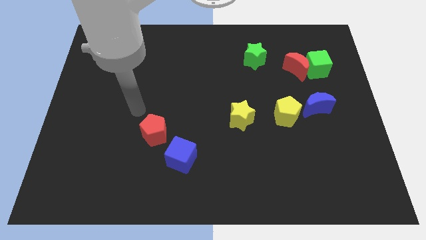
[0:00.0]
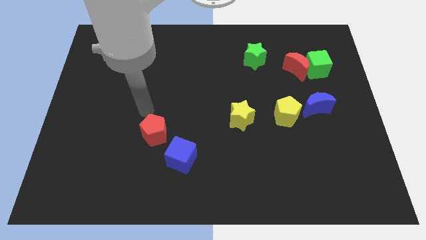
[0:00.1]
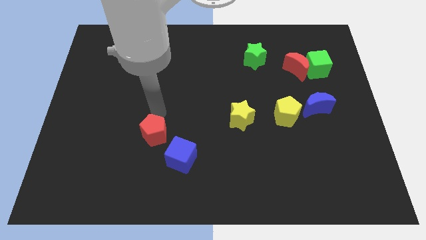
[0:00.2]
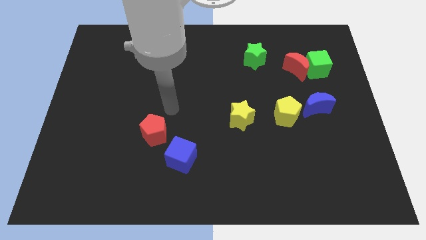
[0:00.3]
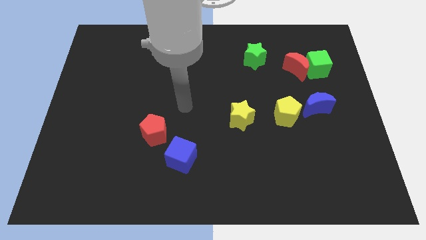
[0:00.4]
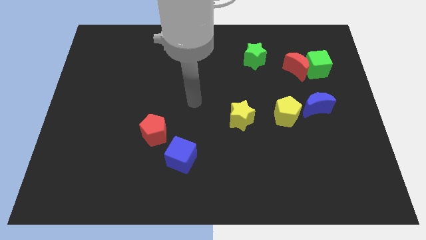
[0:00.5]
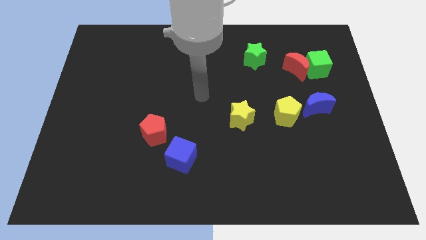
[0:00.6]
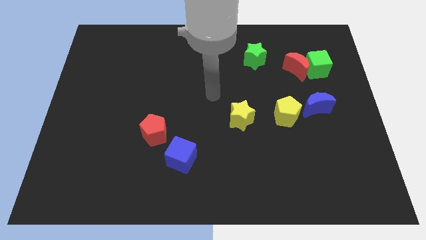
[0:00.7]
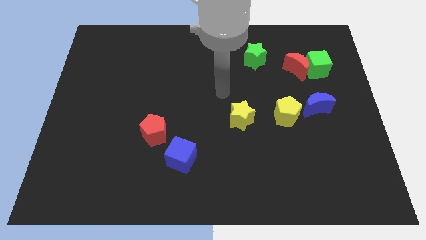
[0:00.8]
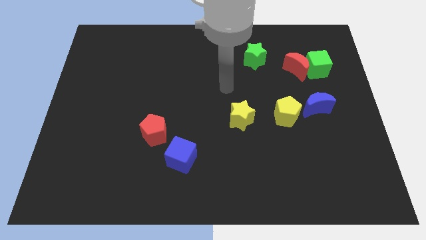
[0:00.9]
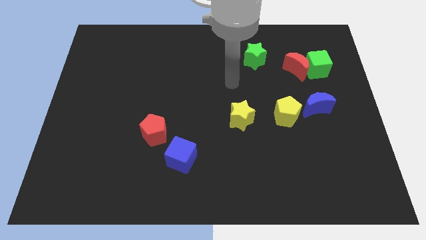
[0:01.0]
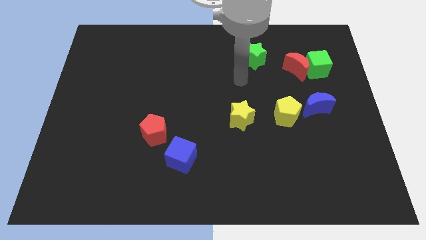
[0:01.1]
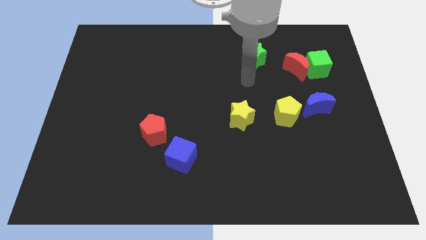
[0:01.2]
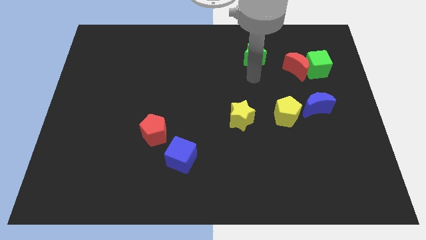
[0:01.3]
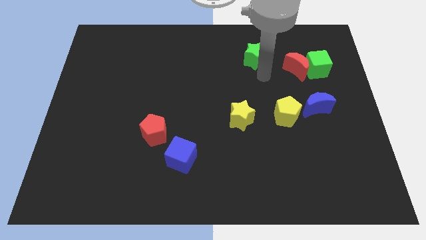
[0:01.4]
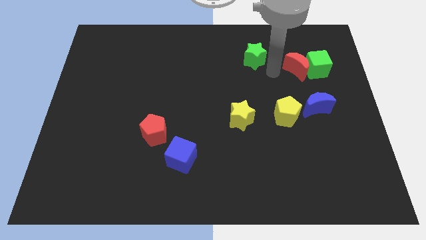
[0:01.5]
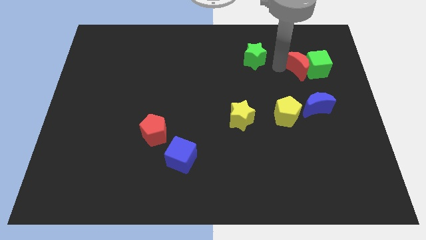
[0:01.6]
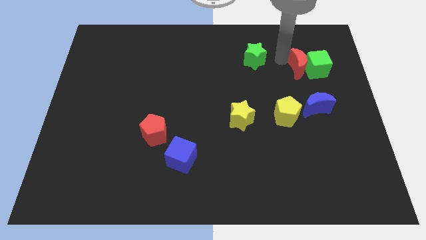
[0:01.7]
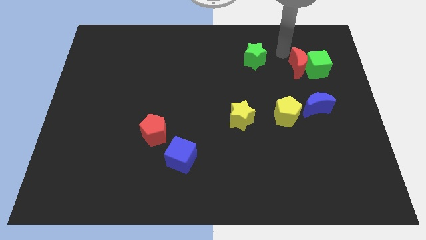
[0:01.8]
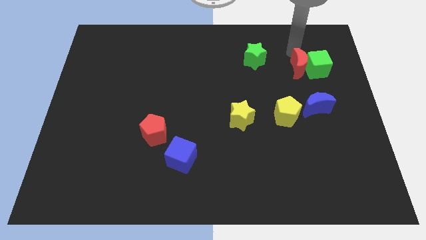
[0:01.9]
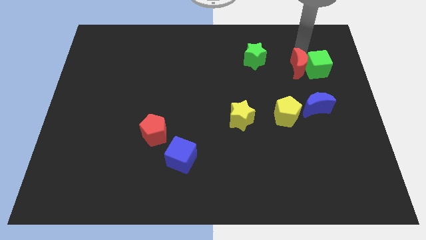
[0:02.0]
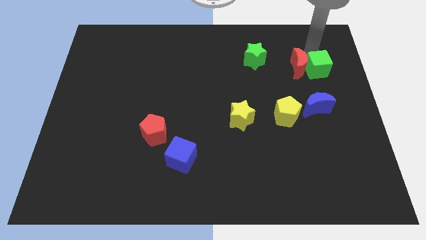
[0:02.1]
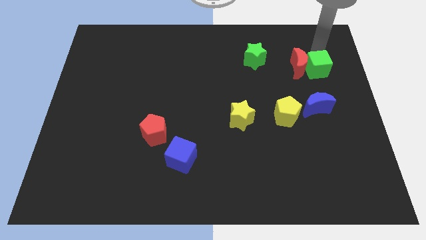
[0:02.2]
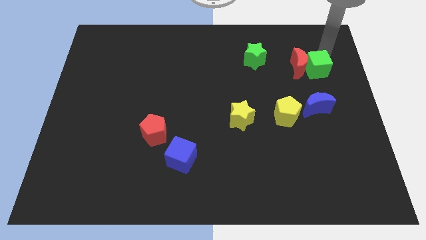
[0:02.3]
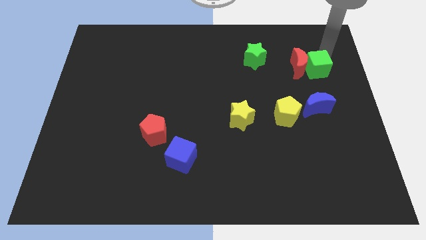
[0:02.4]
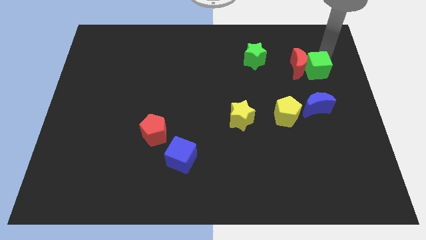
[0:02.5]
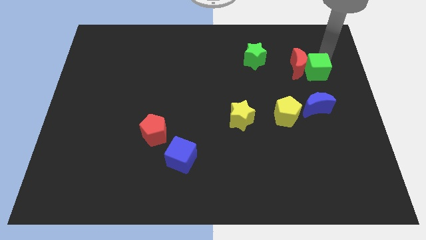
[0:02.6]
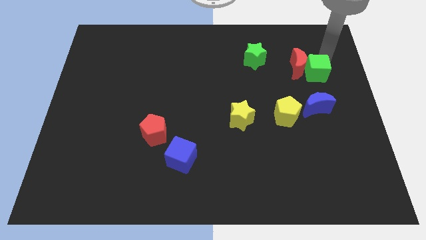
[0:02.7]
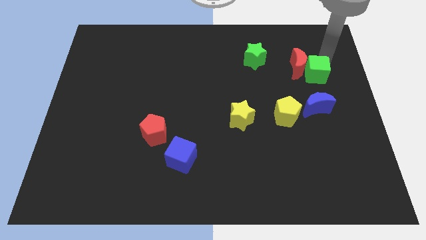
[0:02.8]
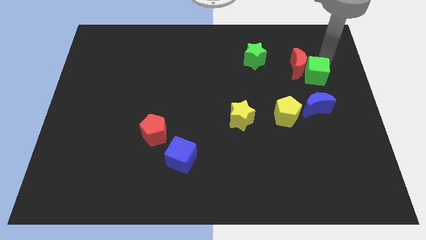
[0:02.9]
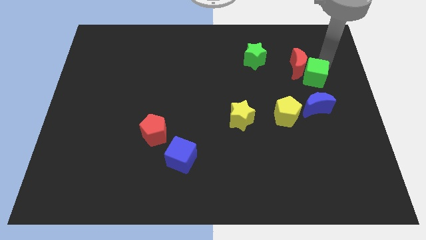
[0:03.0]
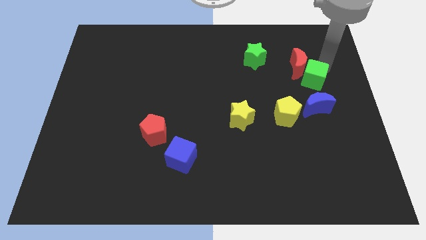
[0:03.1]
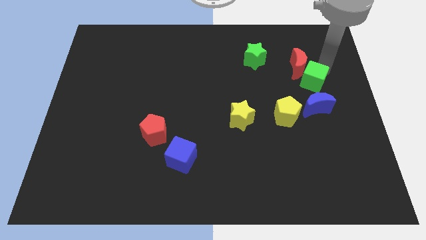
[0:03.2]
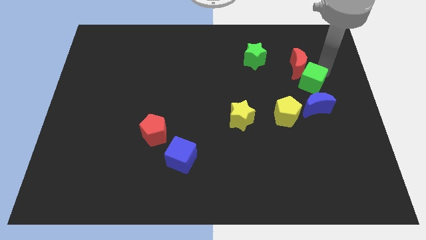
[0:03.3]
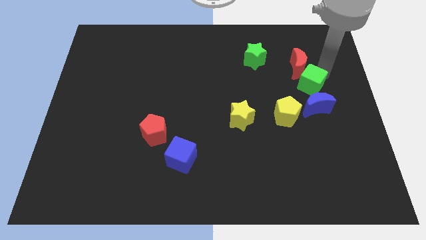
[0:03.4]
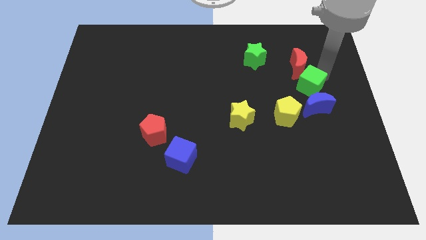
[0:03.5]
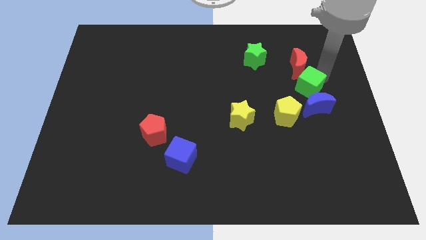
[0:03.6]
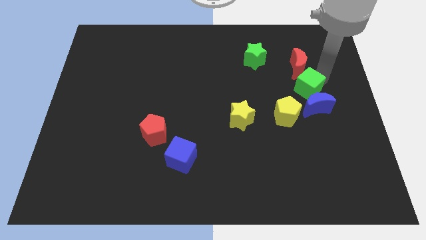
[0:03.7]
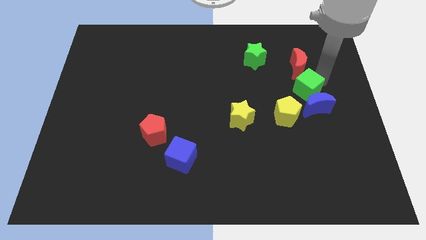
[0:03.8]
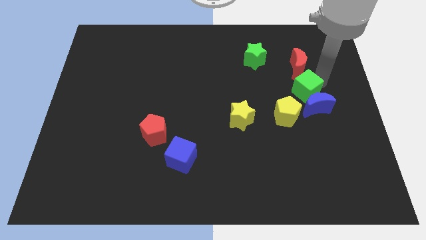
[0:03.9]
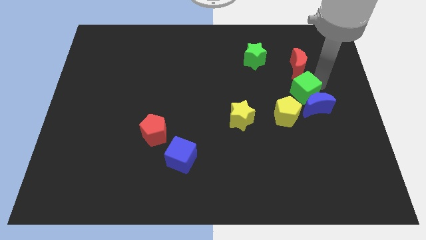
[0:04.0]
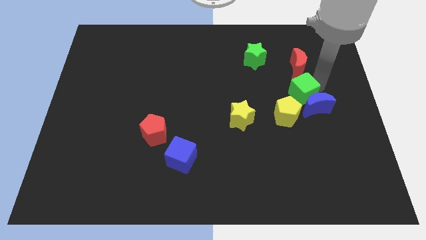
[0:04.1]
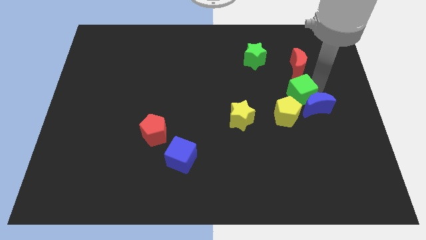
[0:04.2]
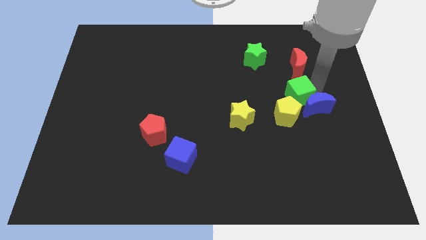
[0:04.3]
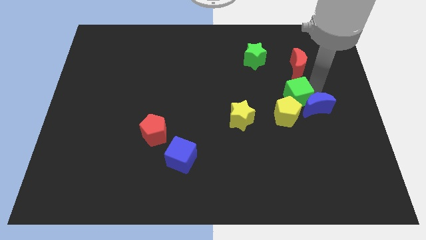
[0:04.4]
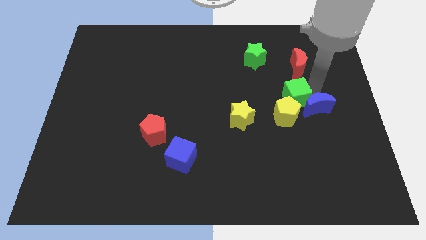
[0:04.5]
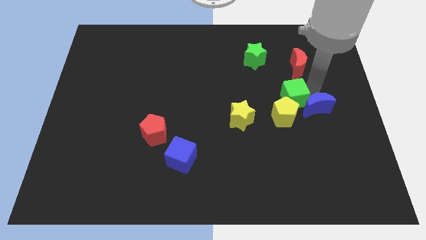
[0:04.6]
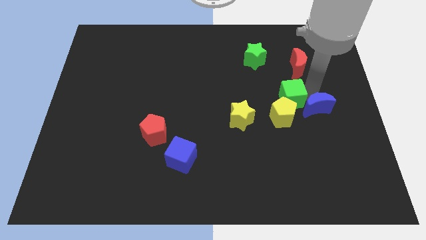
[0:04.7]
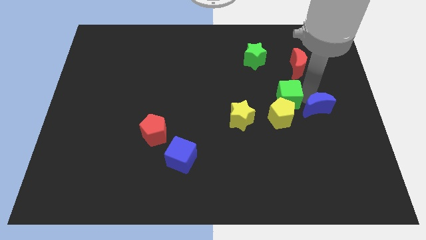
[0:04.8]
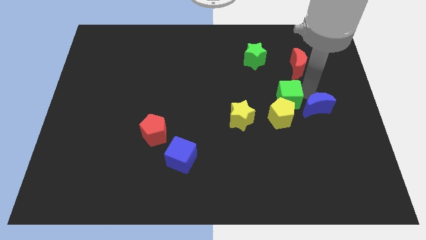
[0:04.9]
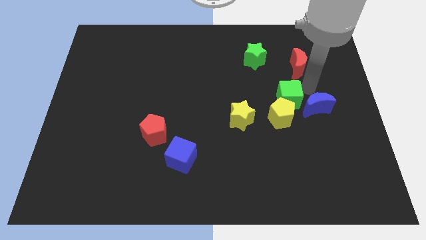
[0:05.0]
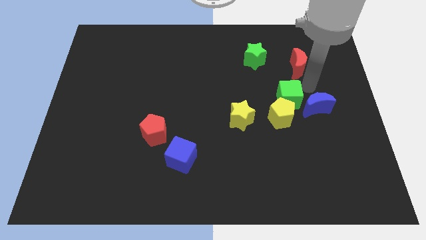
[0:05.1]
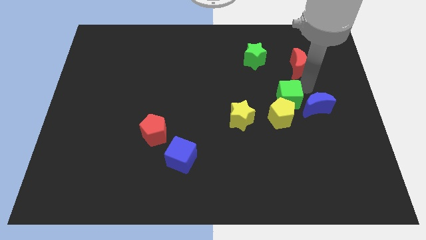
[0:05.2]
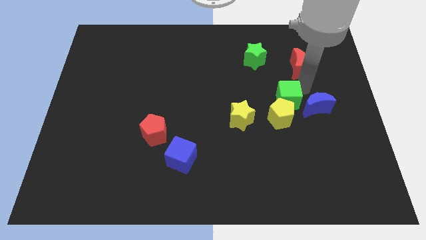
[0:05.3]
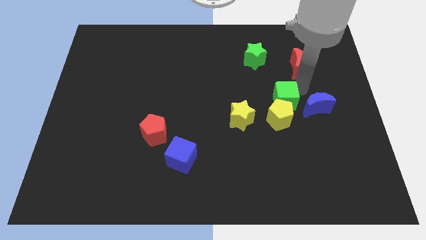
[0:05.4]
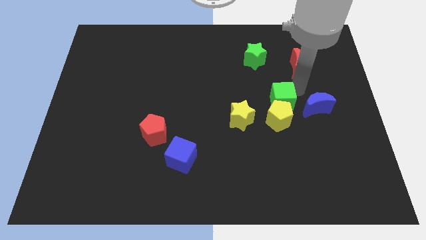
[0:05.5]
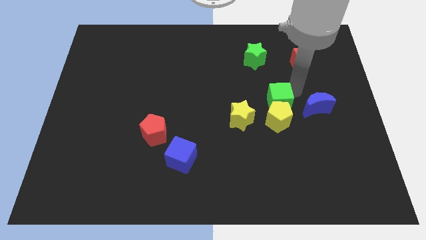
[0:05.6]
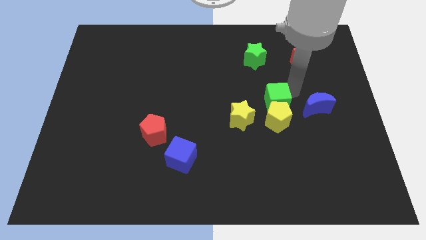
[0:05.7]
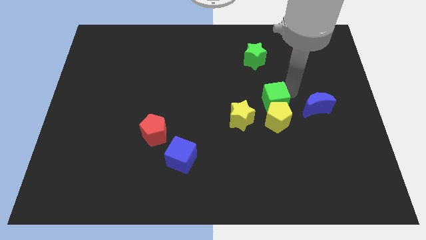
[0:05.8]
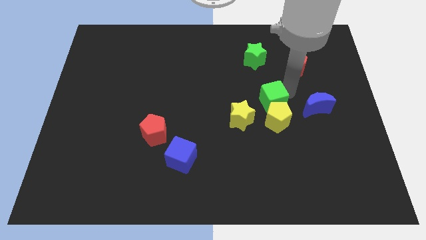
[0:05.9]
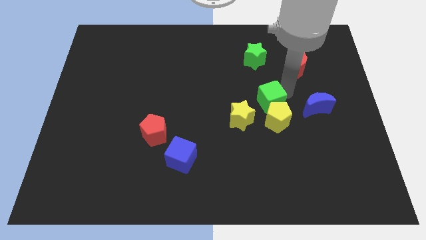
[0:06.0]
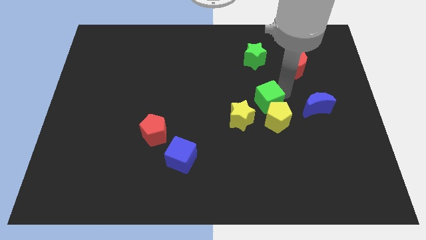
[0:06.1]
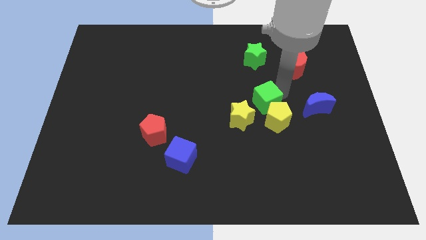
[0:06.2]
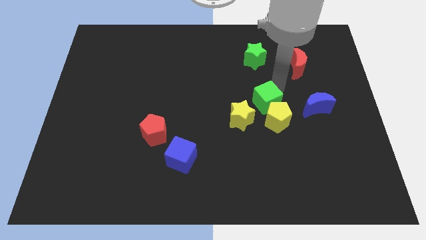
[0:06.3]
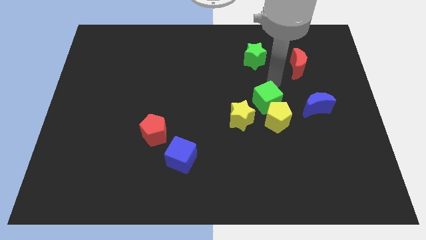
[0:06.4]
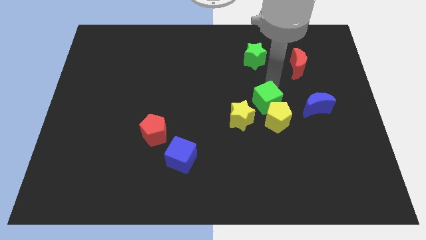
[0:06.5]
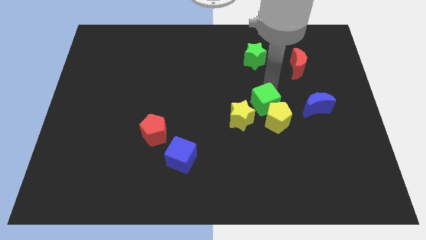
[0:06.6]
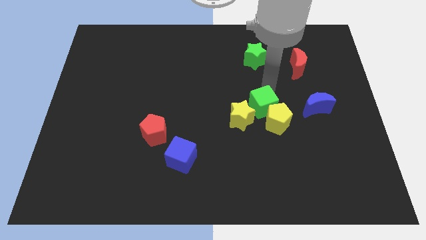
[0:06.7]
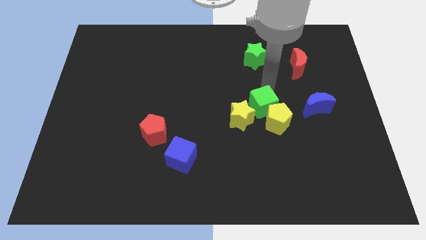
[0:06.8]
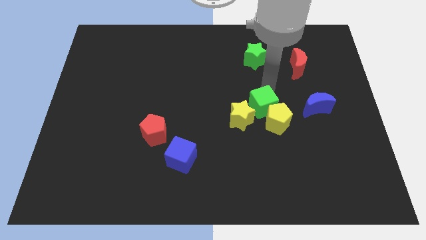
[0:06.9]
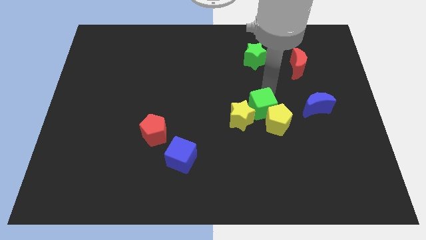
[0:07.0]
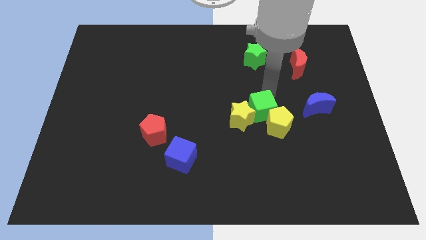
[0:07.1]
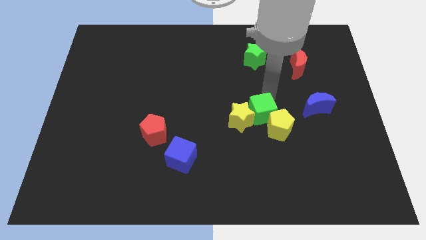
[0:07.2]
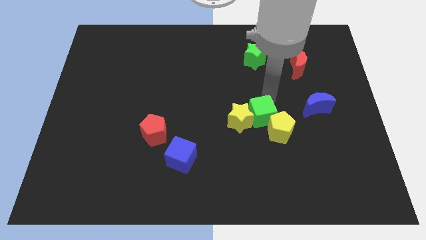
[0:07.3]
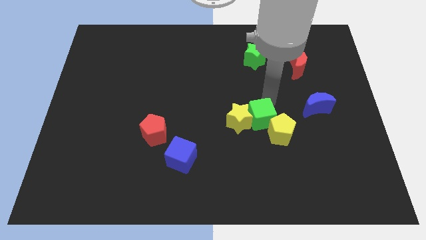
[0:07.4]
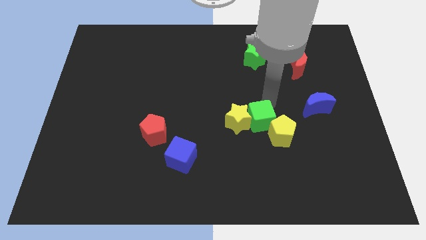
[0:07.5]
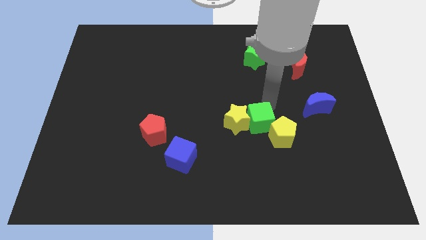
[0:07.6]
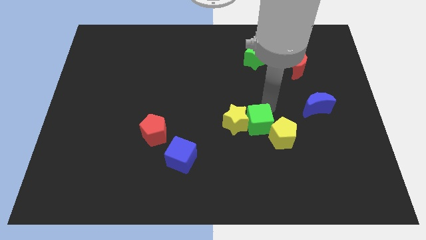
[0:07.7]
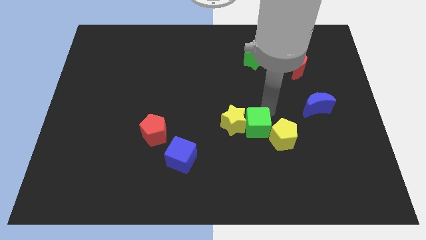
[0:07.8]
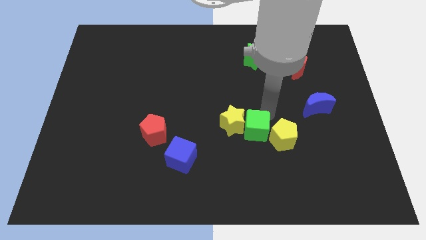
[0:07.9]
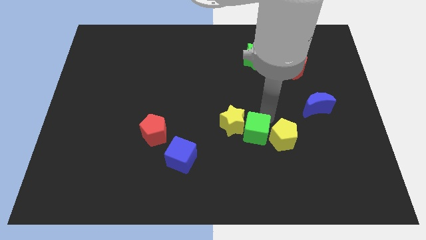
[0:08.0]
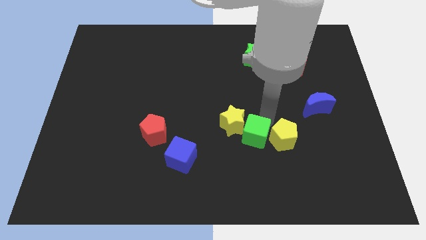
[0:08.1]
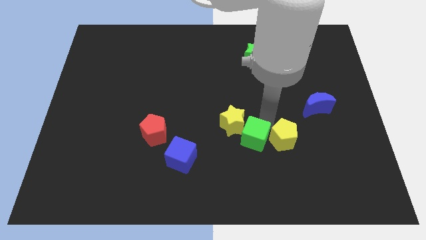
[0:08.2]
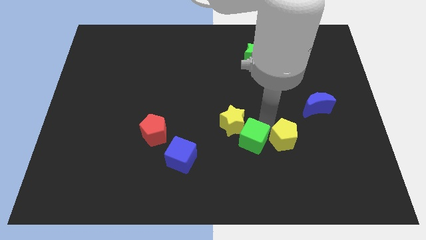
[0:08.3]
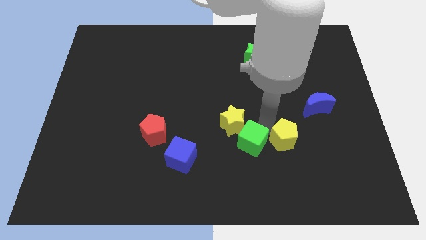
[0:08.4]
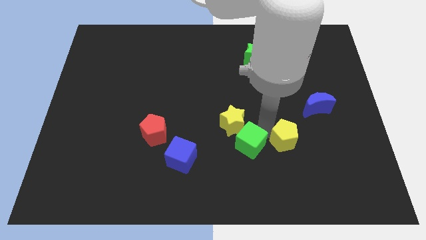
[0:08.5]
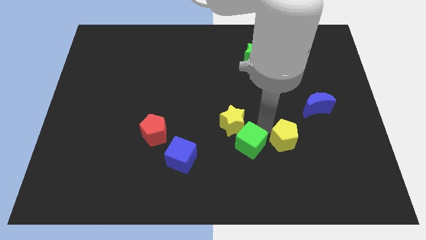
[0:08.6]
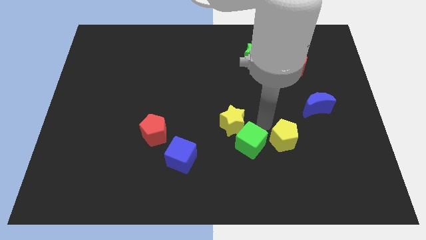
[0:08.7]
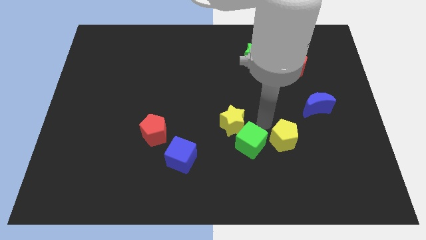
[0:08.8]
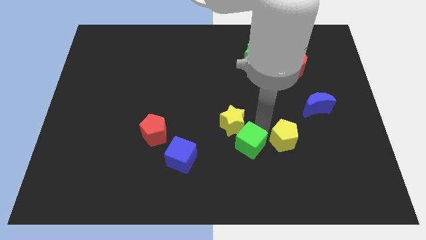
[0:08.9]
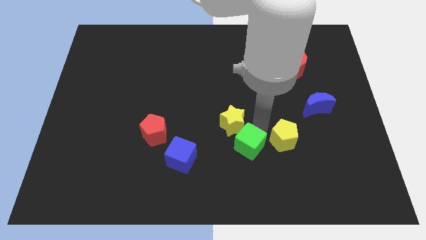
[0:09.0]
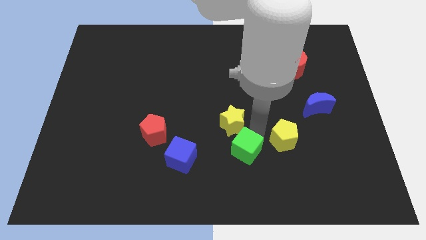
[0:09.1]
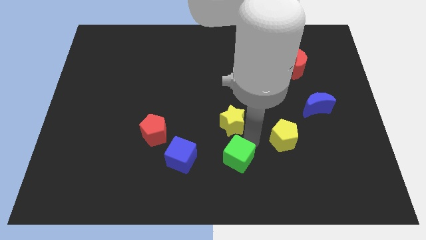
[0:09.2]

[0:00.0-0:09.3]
put the green cube to the bottom
